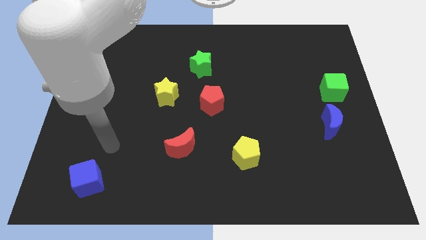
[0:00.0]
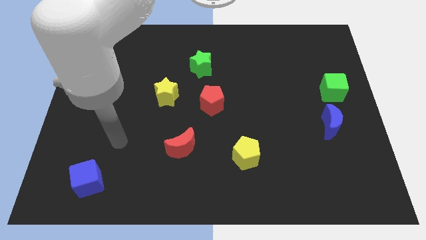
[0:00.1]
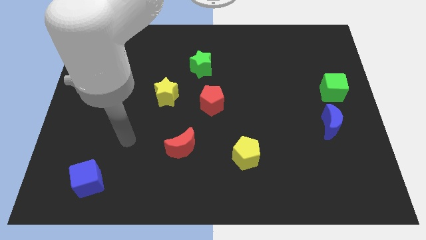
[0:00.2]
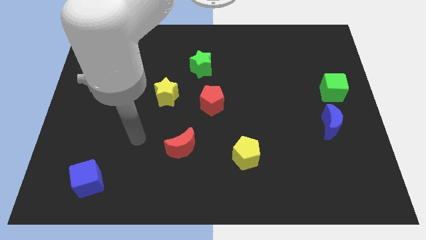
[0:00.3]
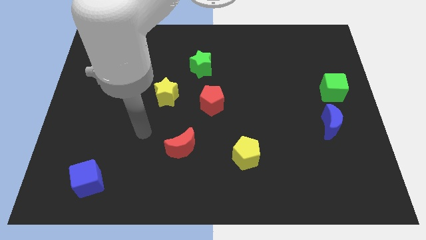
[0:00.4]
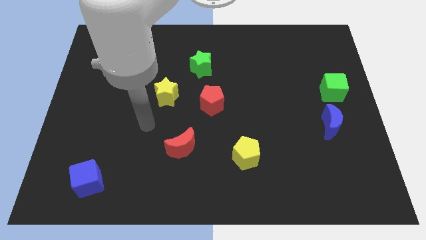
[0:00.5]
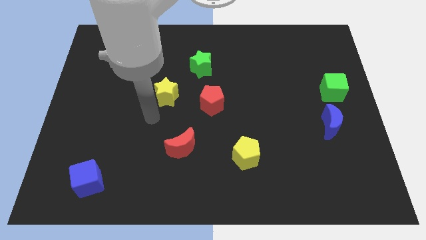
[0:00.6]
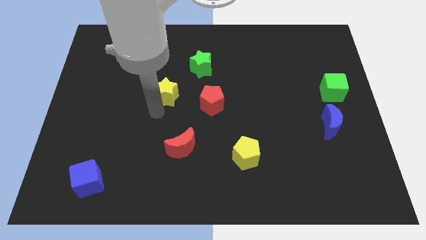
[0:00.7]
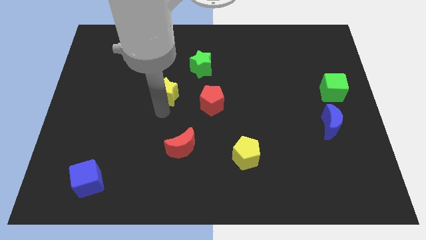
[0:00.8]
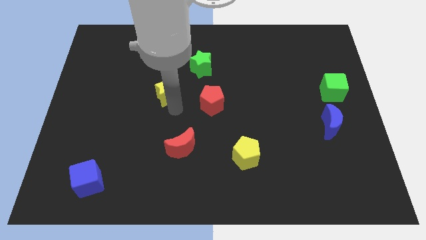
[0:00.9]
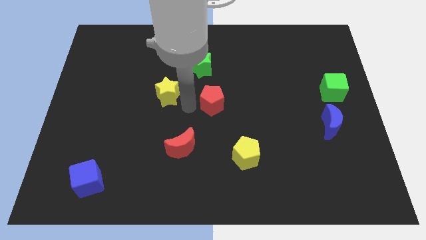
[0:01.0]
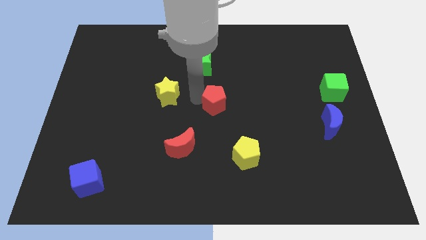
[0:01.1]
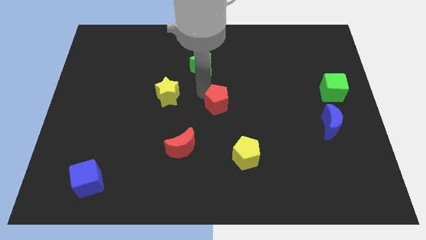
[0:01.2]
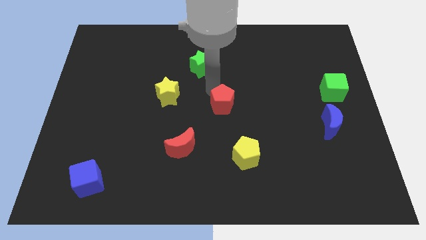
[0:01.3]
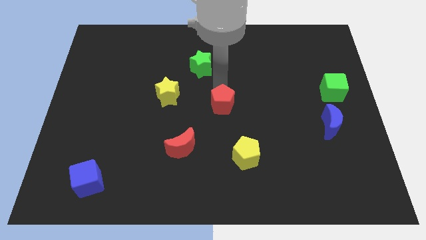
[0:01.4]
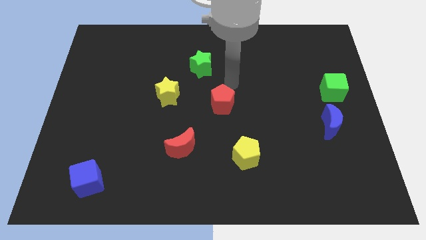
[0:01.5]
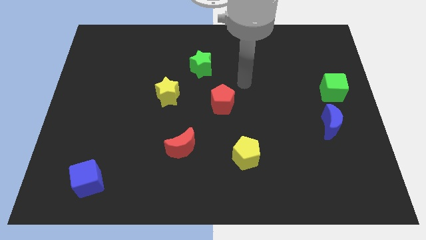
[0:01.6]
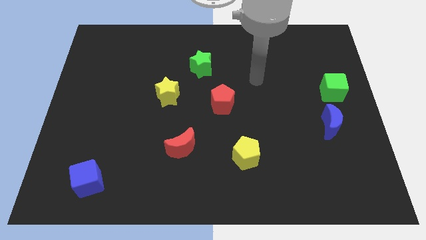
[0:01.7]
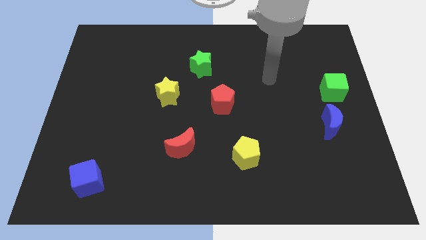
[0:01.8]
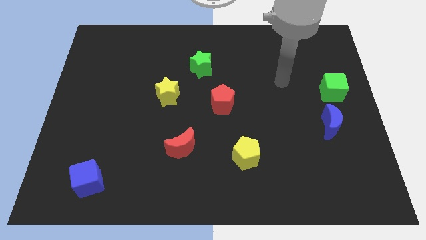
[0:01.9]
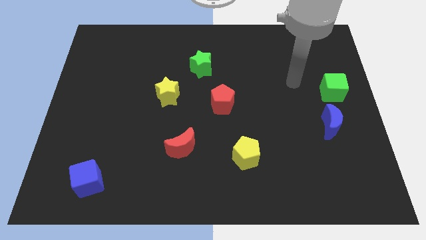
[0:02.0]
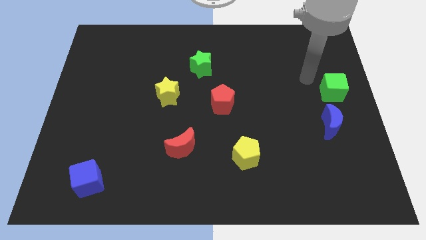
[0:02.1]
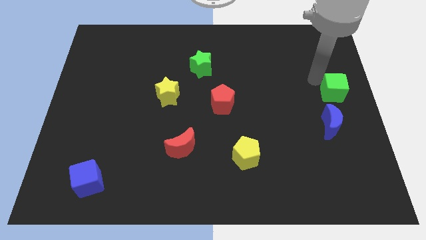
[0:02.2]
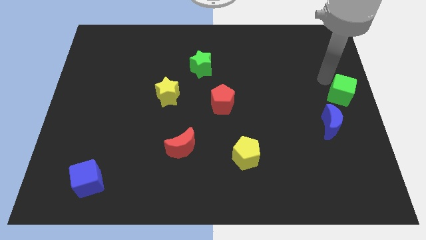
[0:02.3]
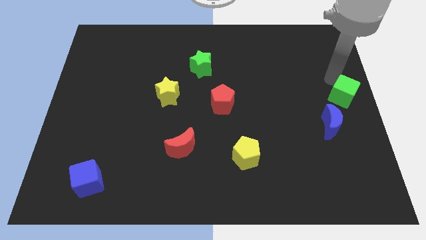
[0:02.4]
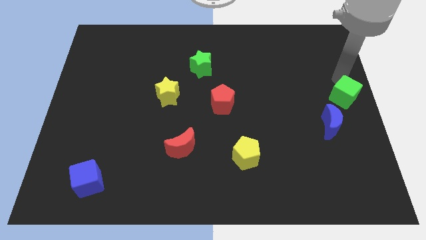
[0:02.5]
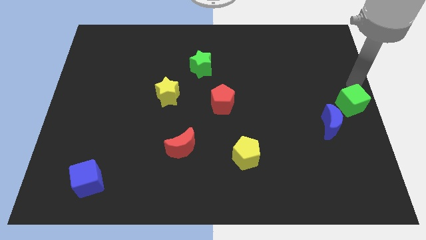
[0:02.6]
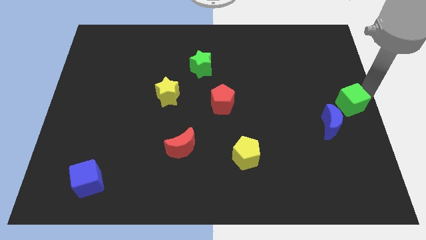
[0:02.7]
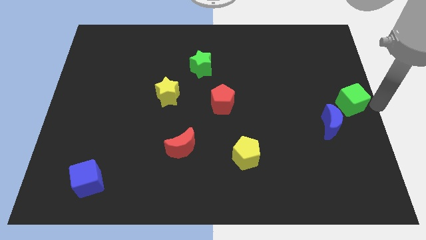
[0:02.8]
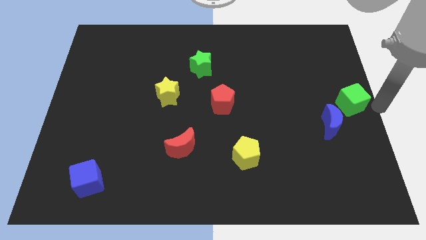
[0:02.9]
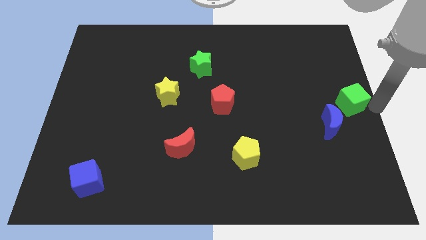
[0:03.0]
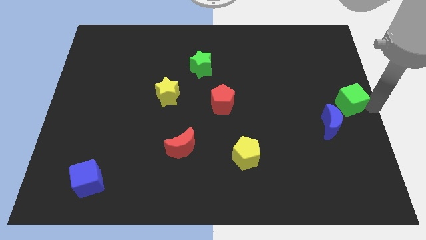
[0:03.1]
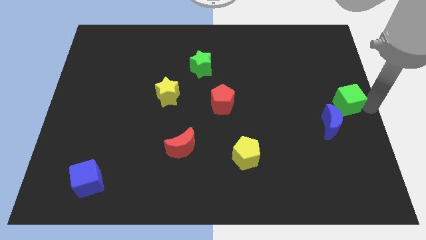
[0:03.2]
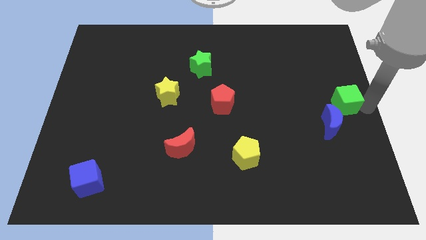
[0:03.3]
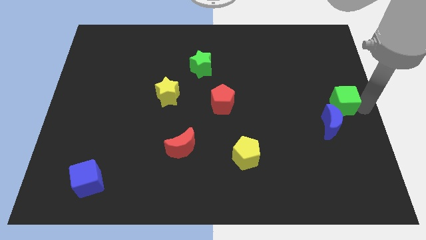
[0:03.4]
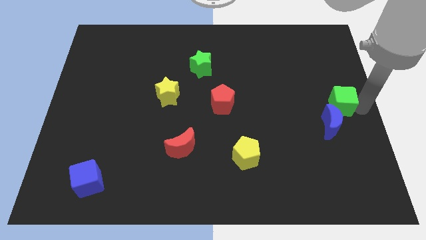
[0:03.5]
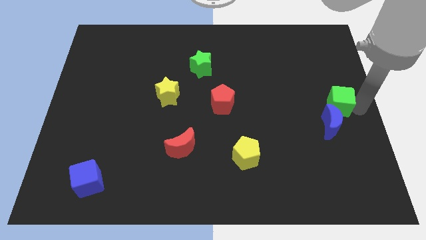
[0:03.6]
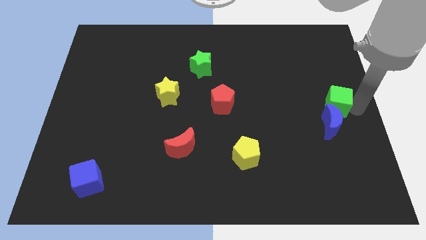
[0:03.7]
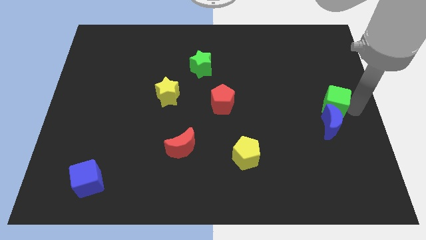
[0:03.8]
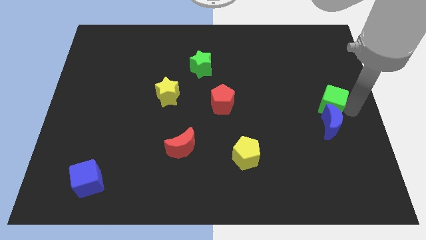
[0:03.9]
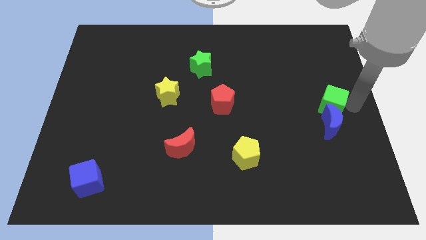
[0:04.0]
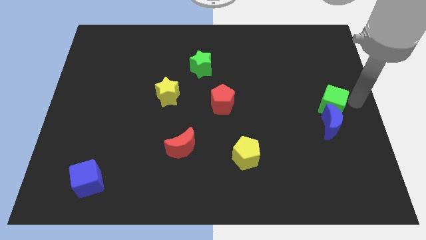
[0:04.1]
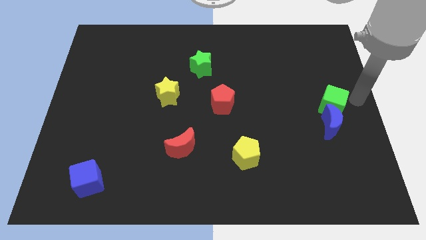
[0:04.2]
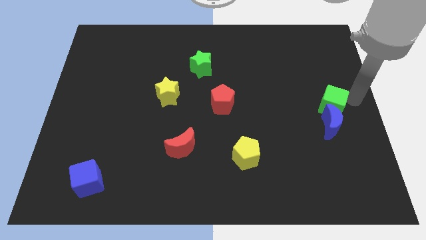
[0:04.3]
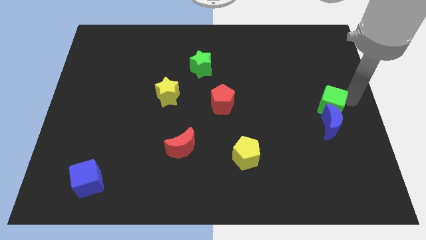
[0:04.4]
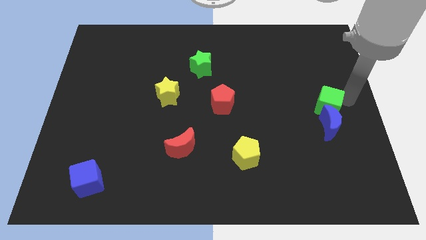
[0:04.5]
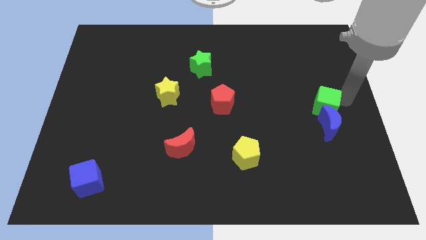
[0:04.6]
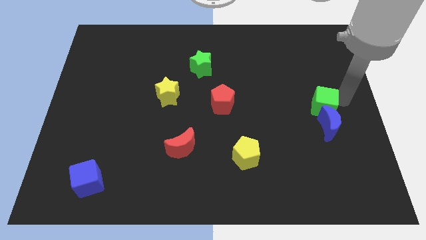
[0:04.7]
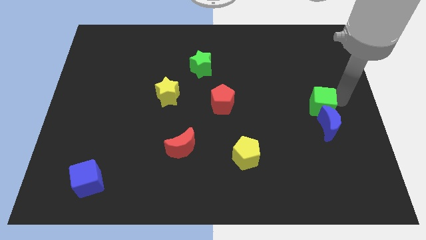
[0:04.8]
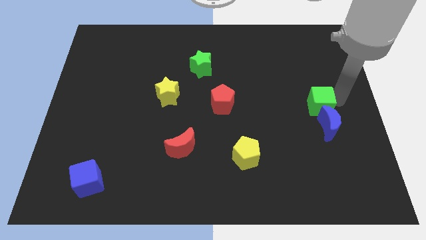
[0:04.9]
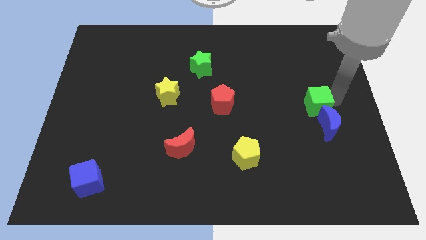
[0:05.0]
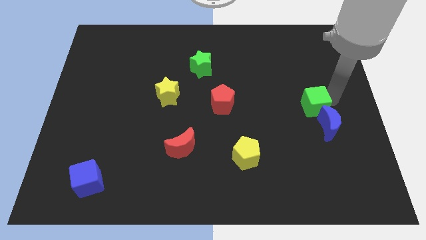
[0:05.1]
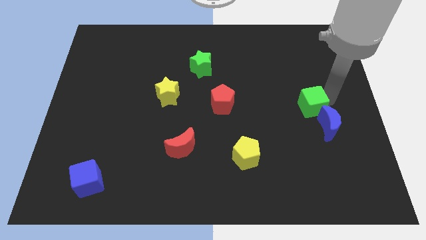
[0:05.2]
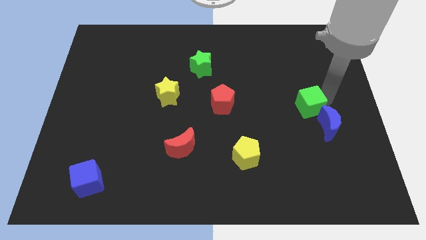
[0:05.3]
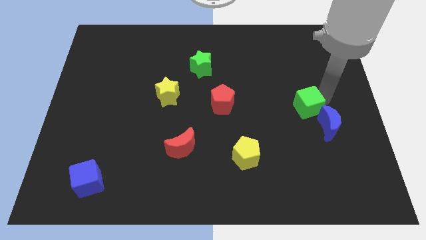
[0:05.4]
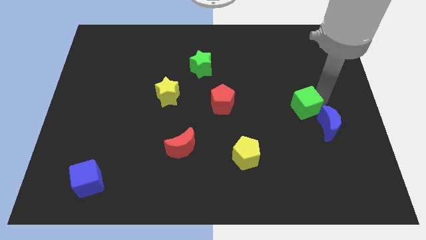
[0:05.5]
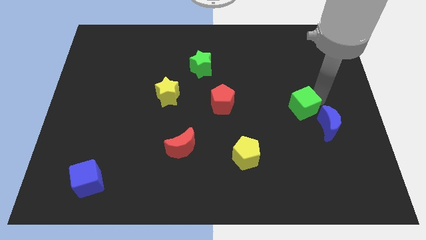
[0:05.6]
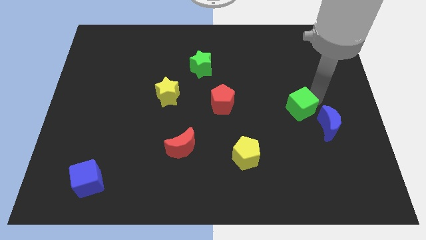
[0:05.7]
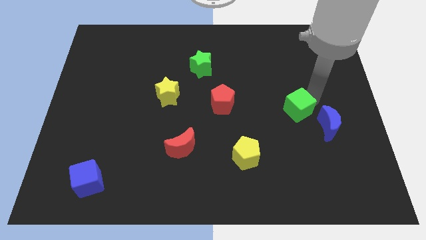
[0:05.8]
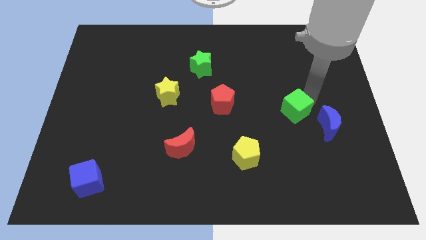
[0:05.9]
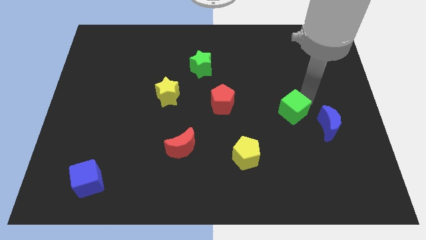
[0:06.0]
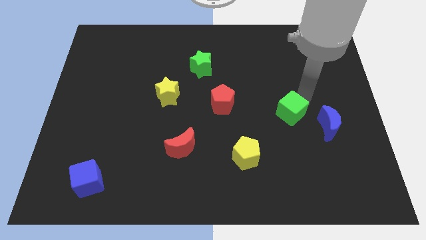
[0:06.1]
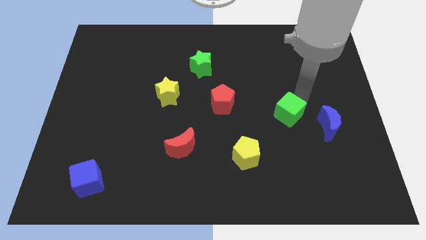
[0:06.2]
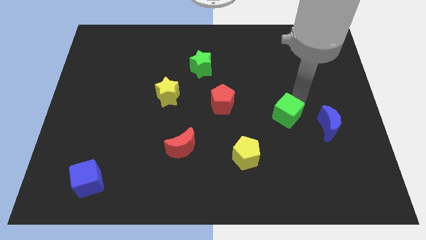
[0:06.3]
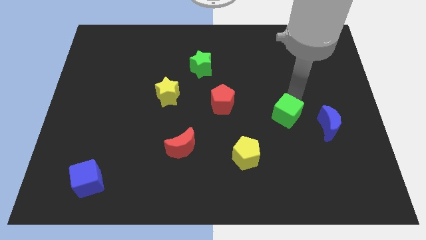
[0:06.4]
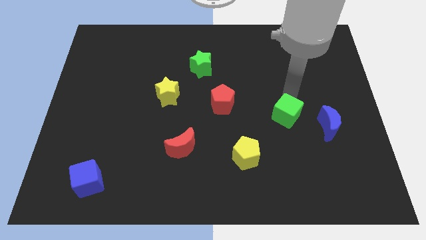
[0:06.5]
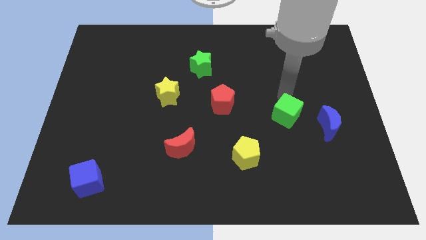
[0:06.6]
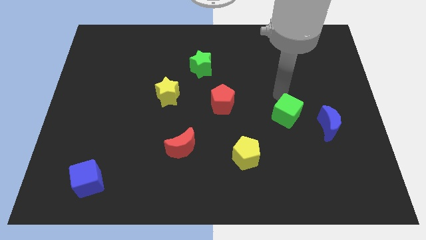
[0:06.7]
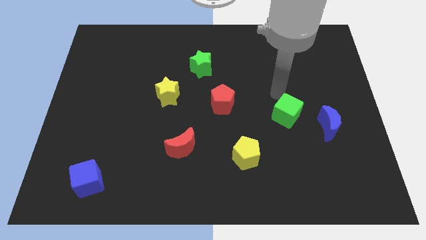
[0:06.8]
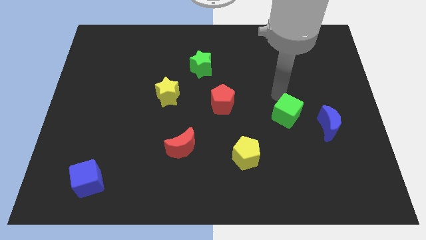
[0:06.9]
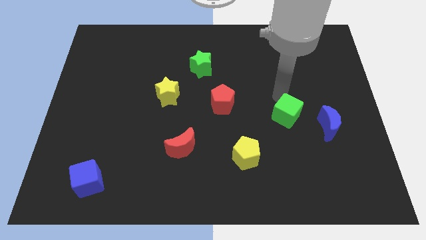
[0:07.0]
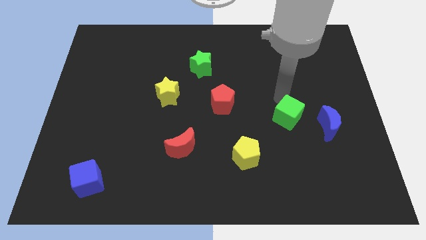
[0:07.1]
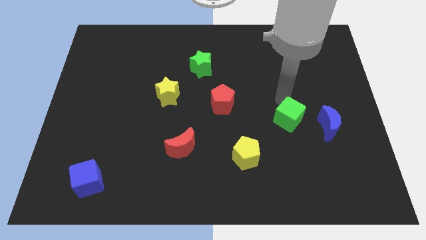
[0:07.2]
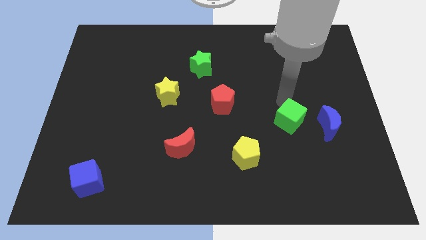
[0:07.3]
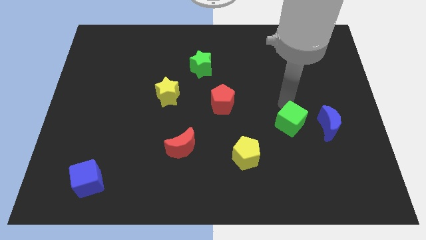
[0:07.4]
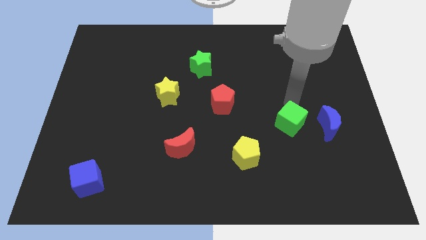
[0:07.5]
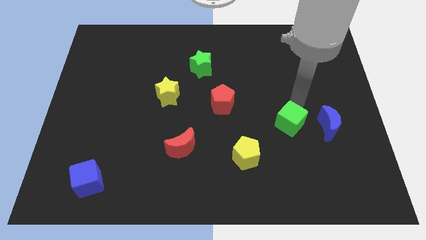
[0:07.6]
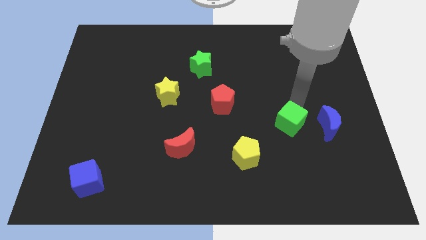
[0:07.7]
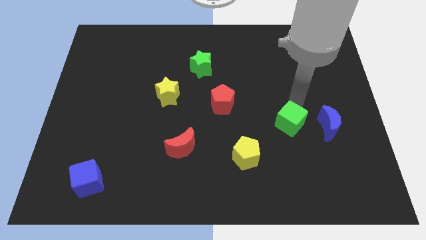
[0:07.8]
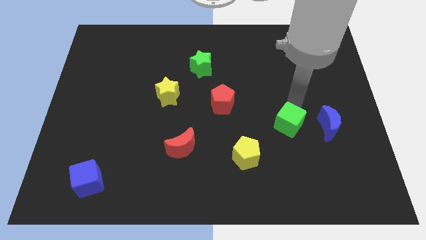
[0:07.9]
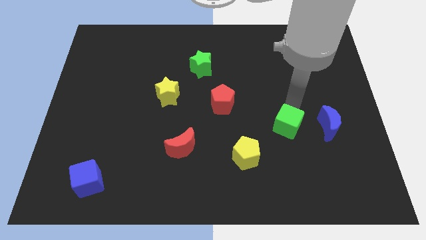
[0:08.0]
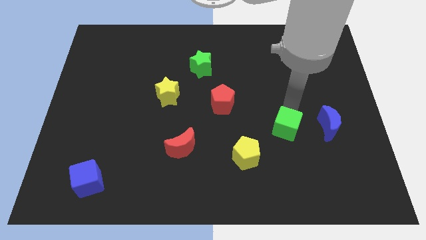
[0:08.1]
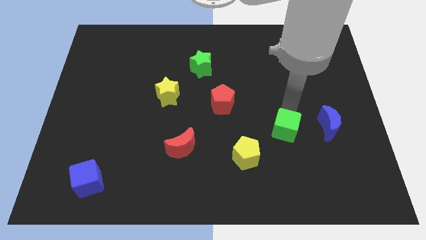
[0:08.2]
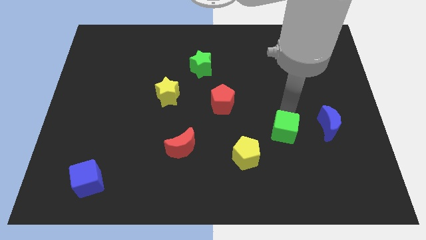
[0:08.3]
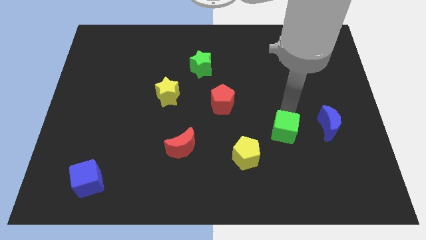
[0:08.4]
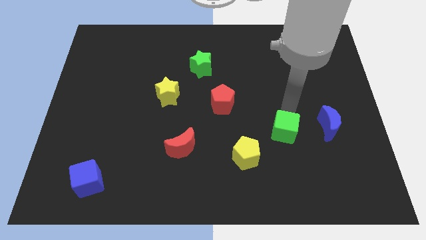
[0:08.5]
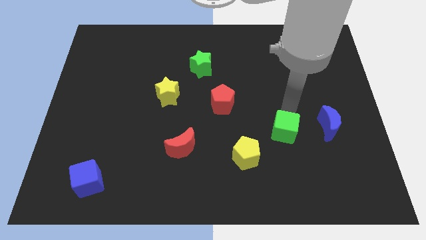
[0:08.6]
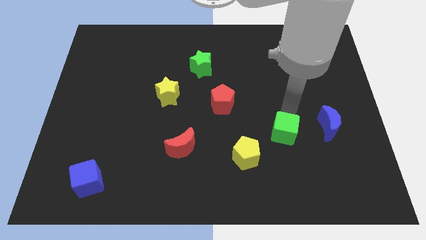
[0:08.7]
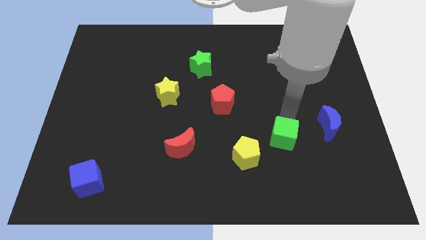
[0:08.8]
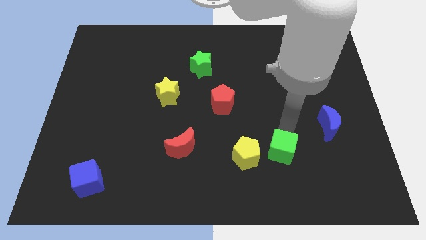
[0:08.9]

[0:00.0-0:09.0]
push the green cube downwards and then to the left
